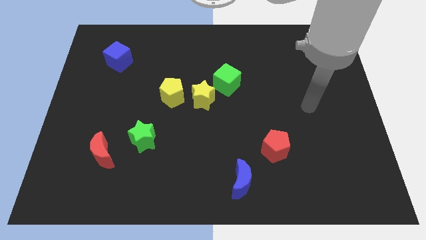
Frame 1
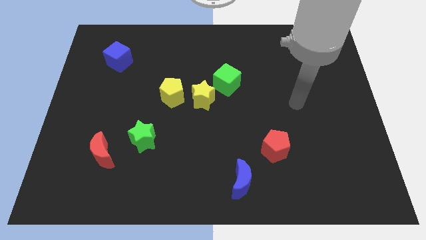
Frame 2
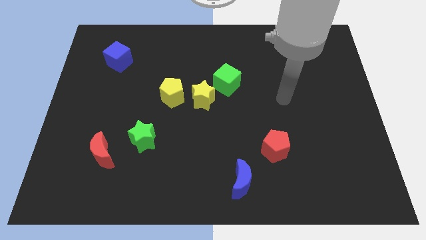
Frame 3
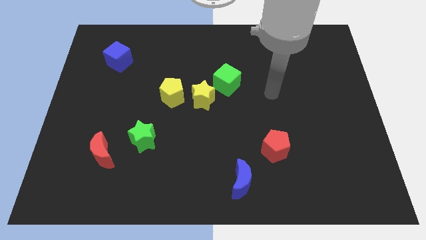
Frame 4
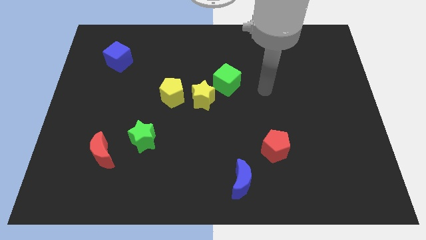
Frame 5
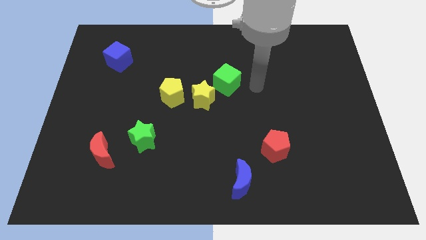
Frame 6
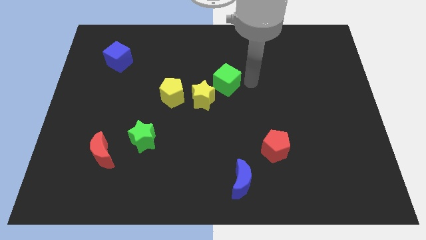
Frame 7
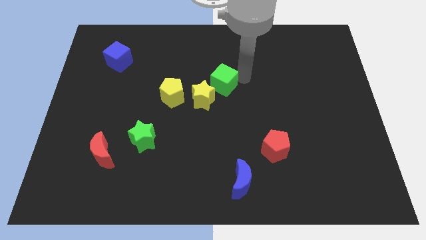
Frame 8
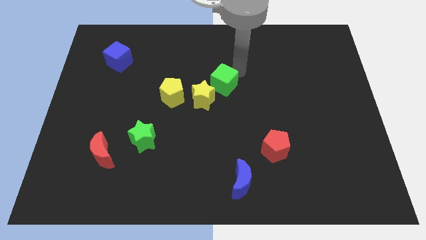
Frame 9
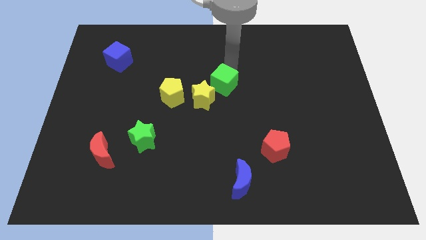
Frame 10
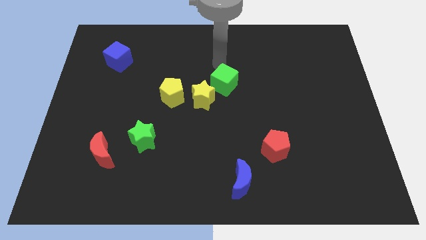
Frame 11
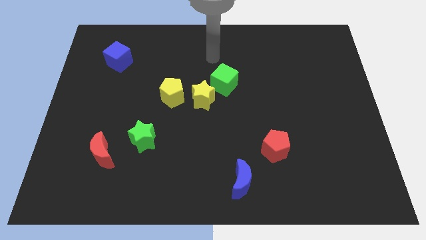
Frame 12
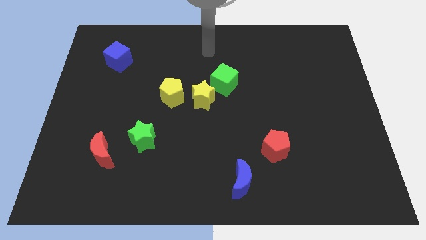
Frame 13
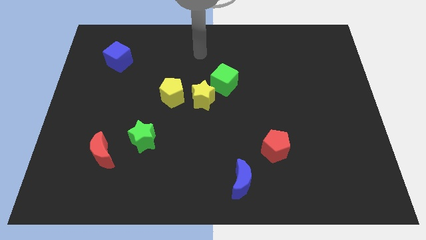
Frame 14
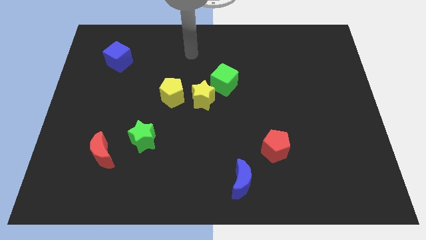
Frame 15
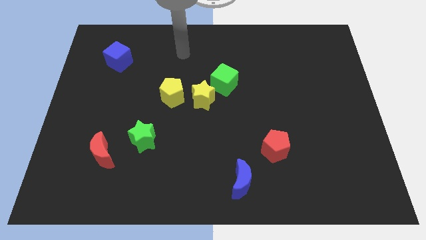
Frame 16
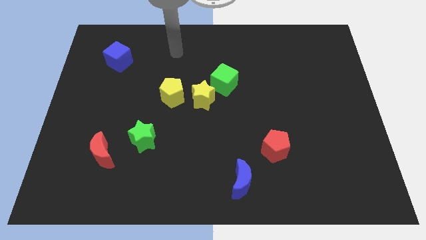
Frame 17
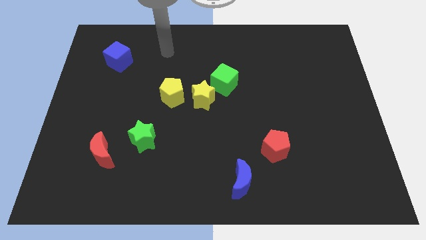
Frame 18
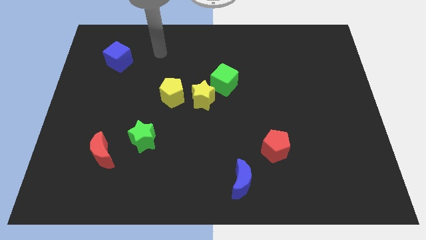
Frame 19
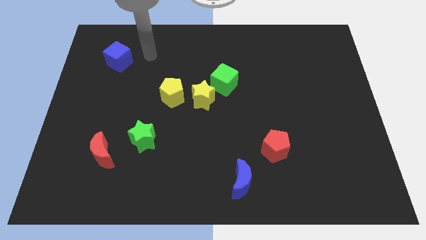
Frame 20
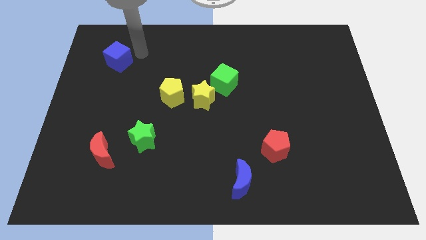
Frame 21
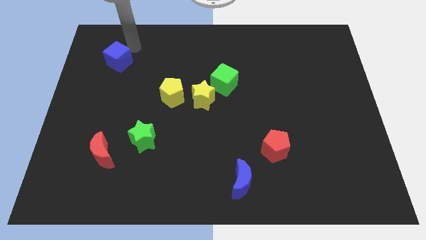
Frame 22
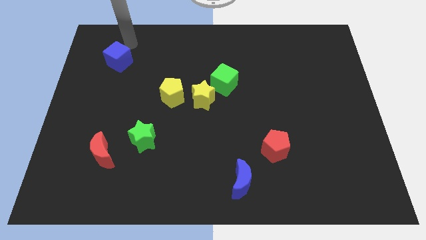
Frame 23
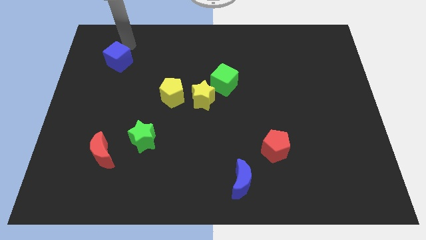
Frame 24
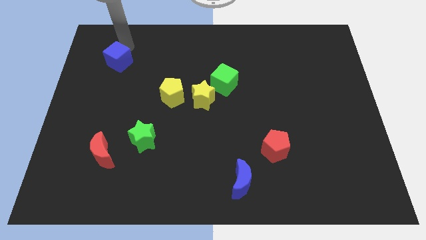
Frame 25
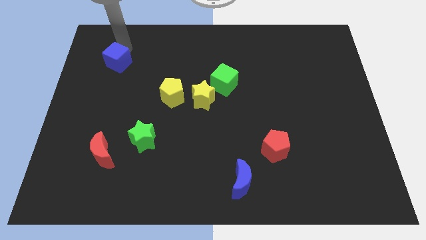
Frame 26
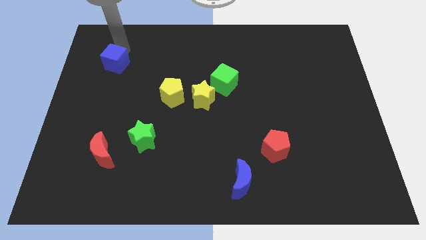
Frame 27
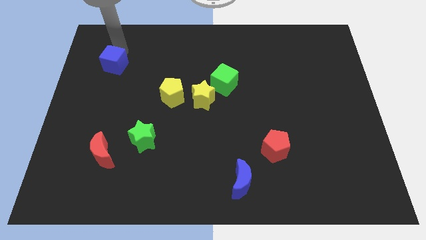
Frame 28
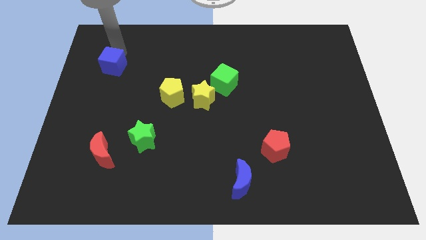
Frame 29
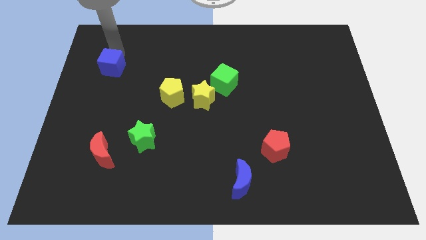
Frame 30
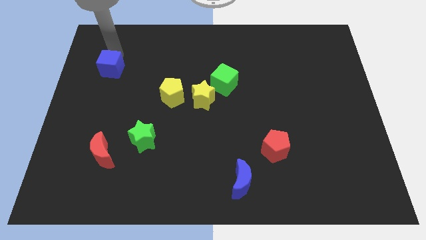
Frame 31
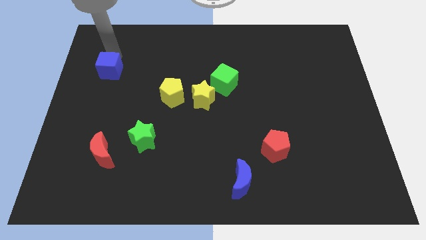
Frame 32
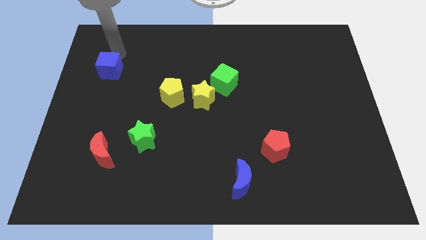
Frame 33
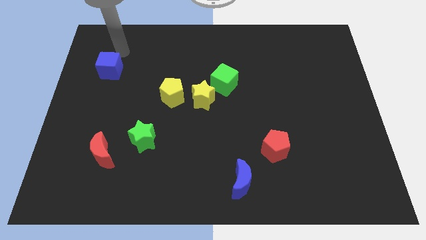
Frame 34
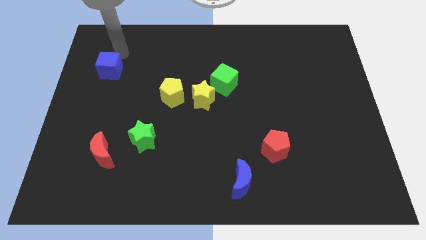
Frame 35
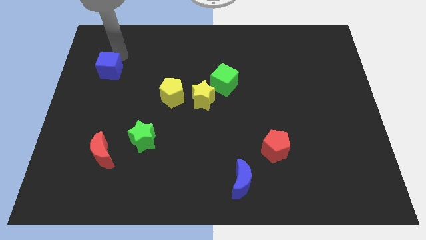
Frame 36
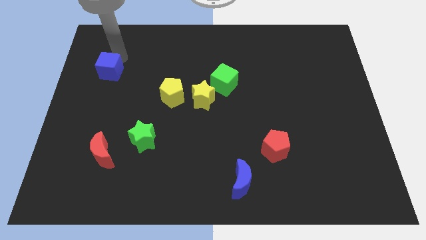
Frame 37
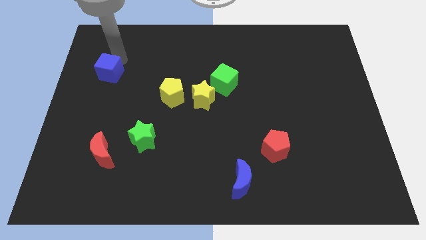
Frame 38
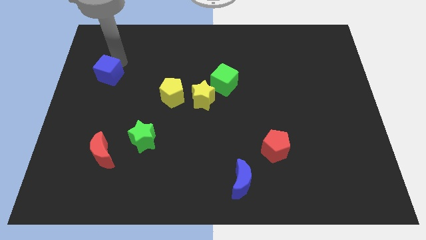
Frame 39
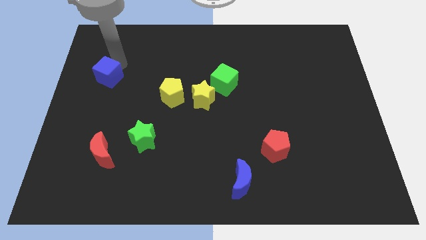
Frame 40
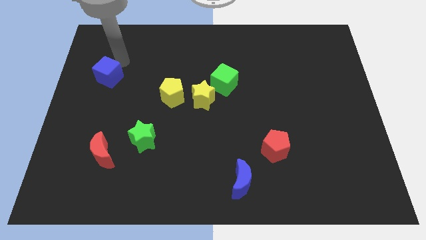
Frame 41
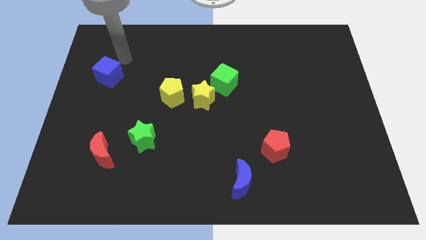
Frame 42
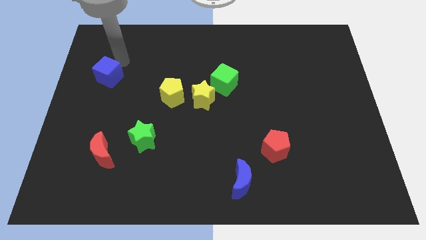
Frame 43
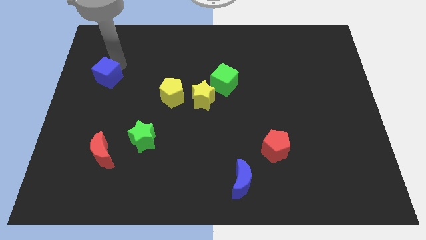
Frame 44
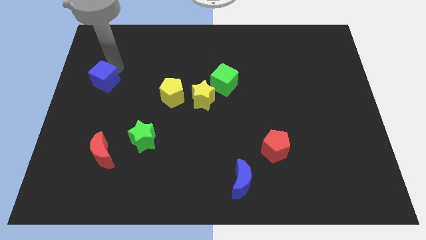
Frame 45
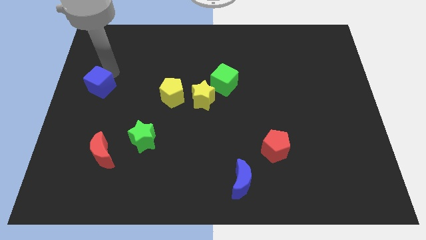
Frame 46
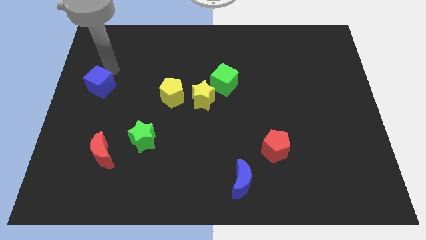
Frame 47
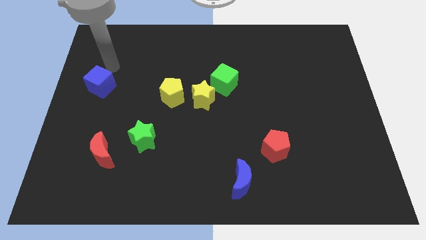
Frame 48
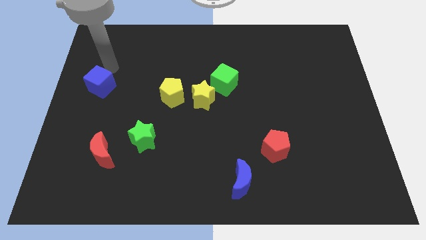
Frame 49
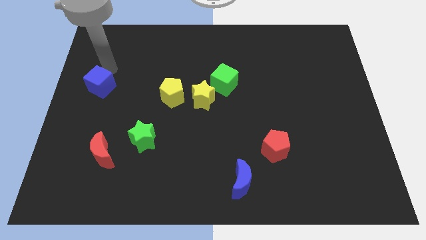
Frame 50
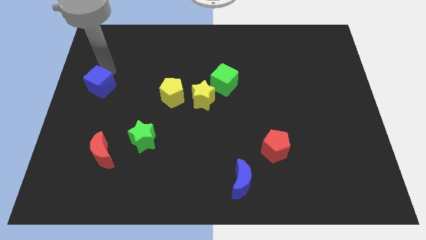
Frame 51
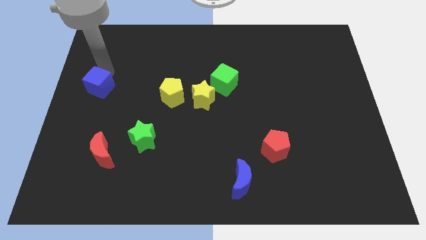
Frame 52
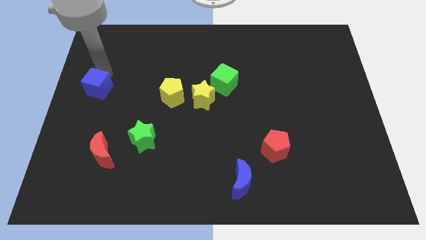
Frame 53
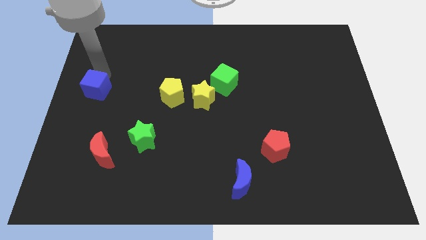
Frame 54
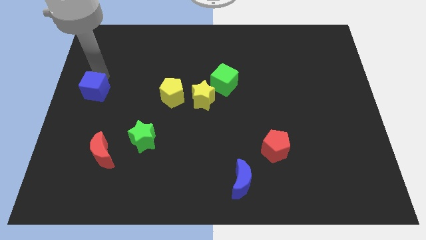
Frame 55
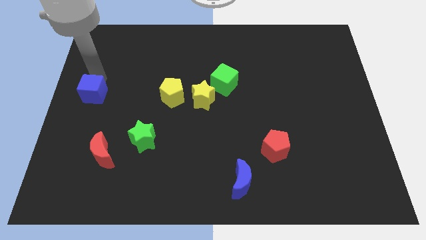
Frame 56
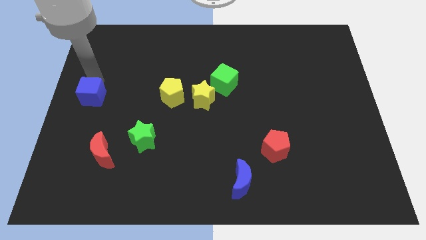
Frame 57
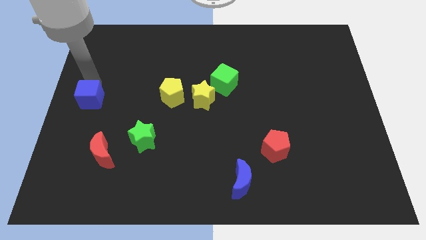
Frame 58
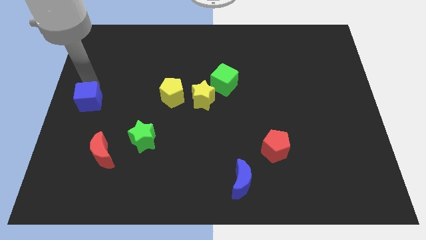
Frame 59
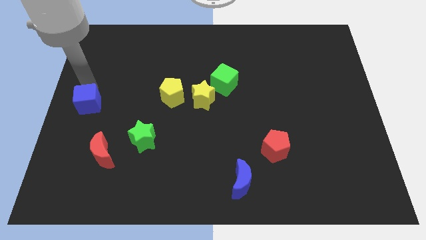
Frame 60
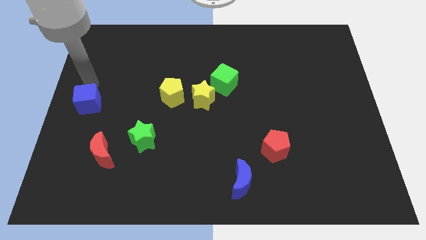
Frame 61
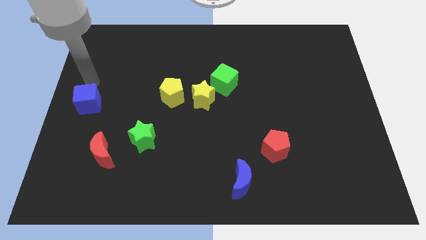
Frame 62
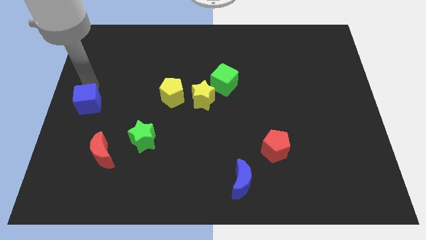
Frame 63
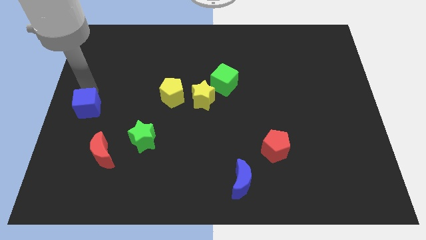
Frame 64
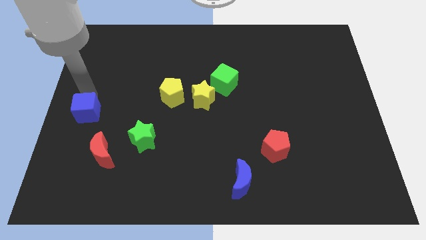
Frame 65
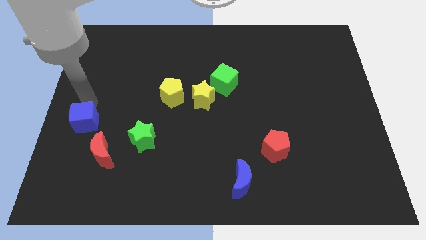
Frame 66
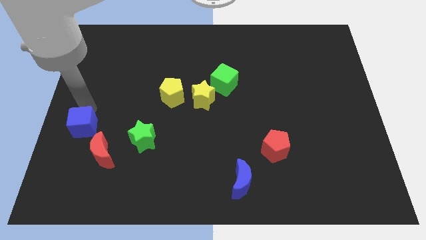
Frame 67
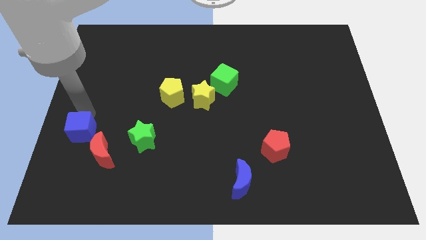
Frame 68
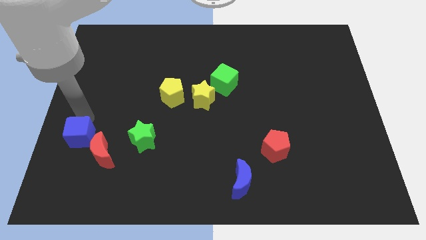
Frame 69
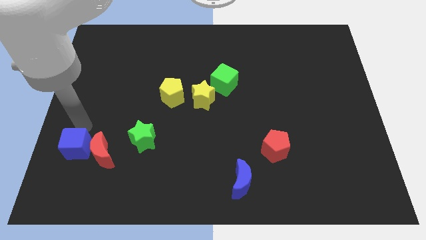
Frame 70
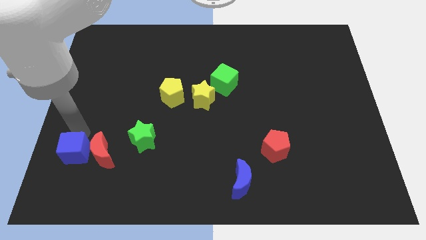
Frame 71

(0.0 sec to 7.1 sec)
put the blue cube diagonally down and to the left of the red moon

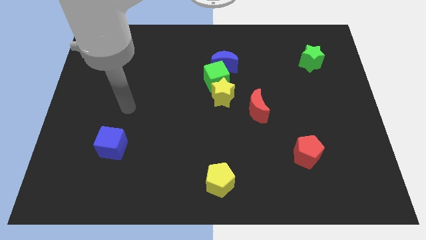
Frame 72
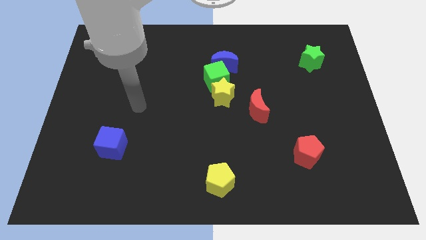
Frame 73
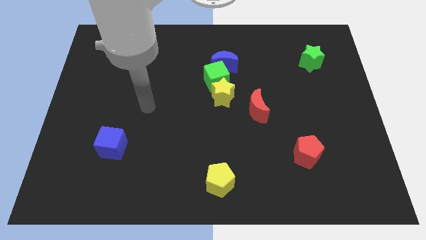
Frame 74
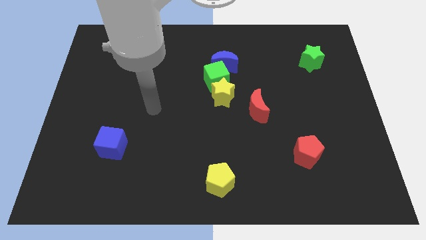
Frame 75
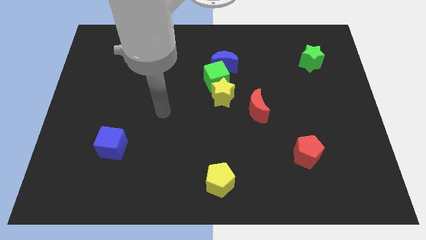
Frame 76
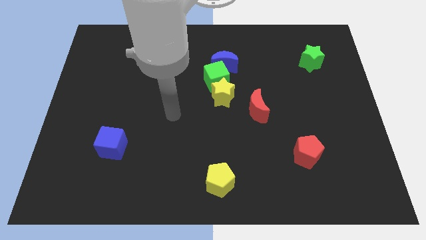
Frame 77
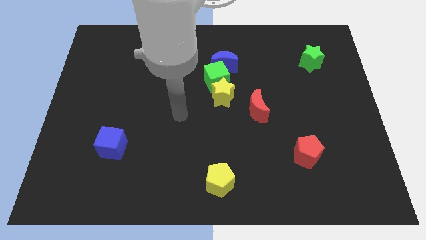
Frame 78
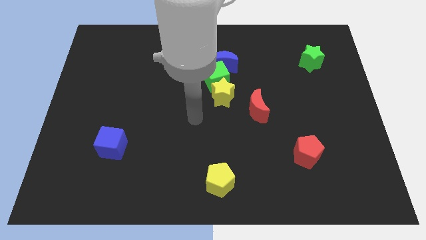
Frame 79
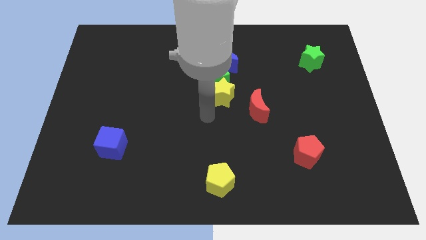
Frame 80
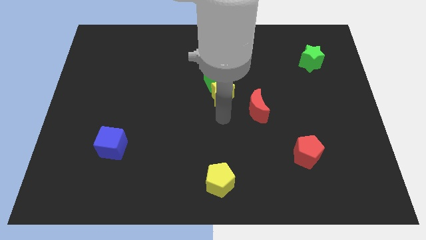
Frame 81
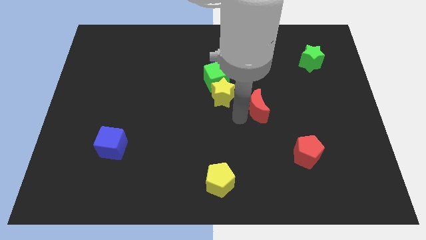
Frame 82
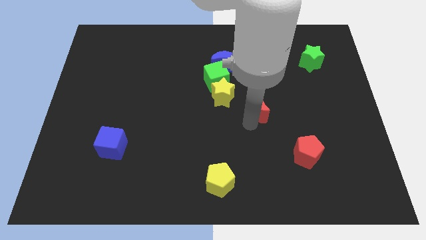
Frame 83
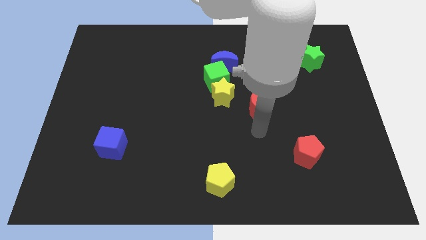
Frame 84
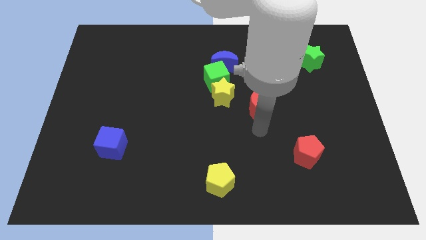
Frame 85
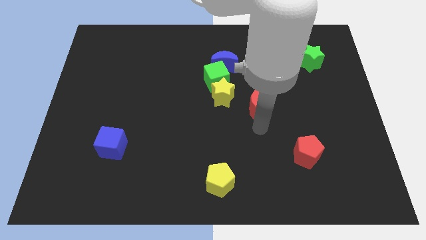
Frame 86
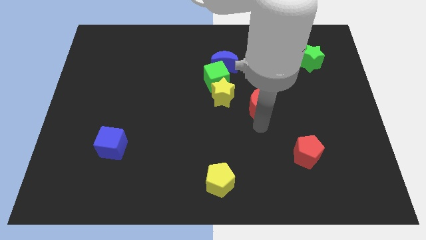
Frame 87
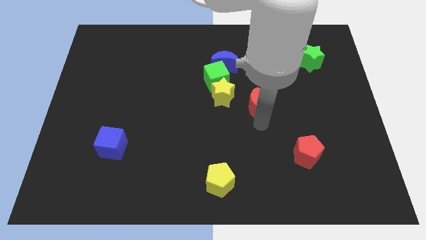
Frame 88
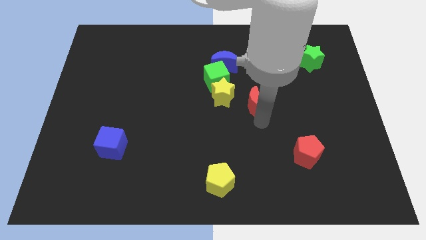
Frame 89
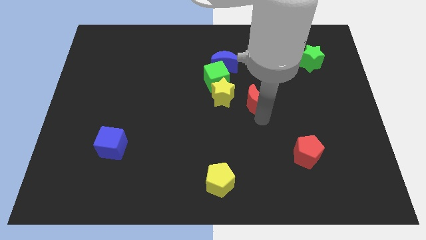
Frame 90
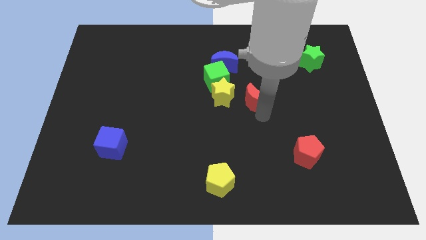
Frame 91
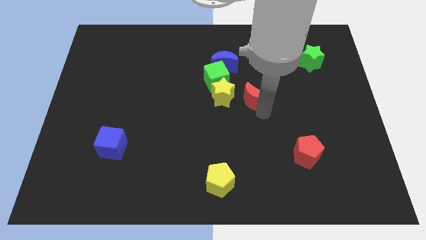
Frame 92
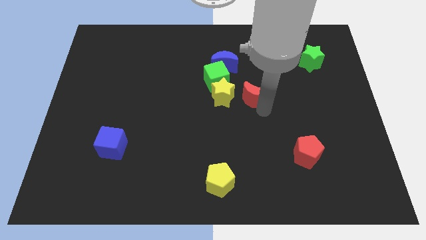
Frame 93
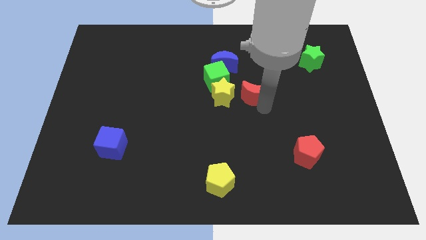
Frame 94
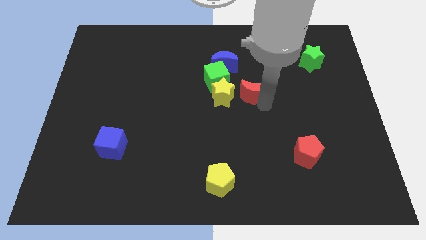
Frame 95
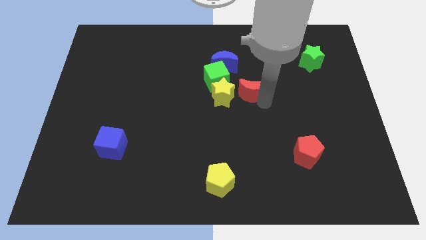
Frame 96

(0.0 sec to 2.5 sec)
move the red moon to the right of the green cube
